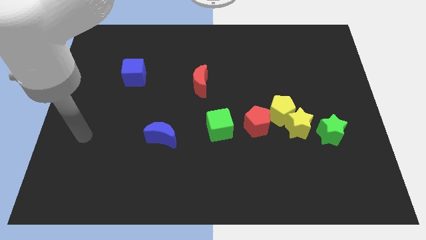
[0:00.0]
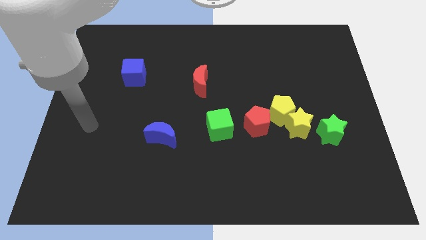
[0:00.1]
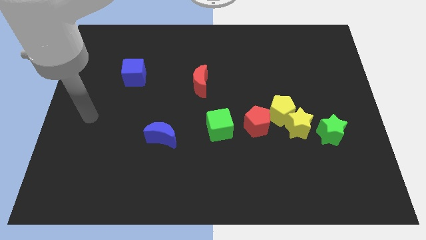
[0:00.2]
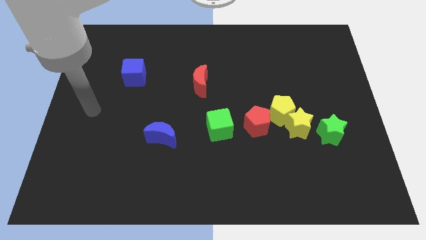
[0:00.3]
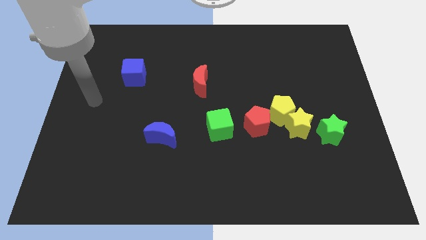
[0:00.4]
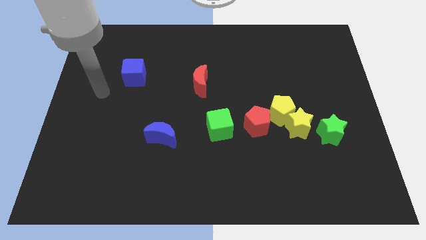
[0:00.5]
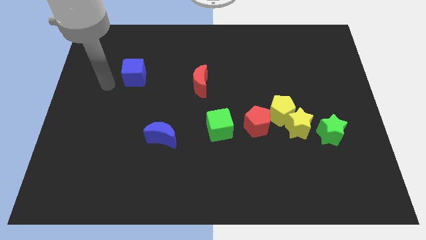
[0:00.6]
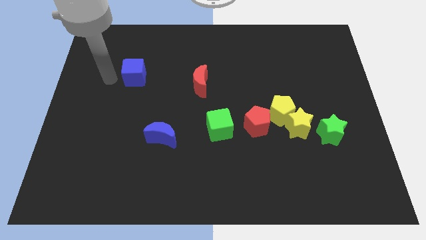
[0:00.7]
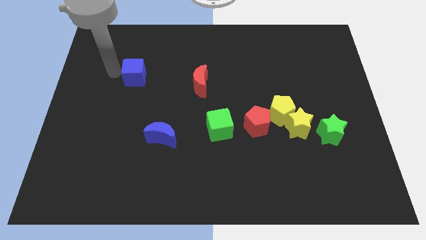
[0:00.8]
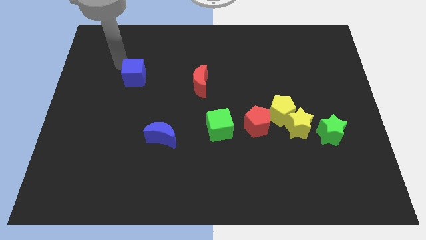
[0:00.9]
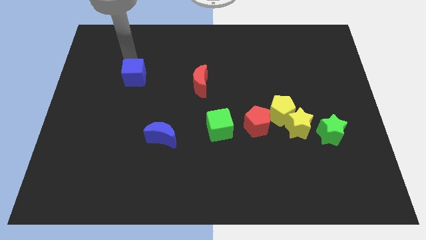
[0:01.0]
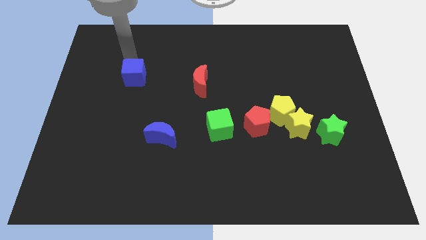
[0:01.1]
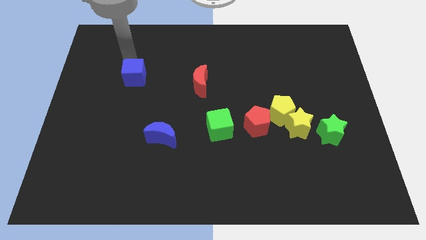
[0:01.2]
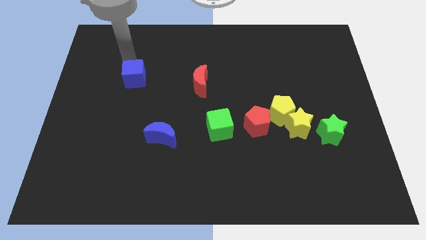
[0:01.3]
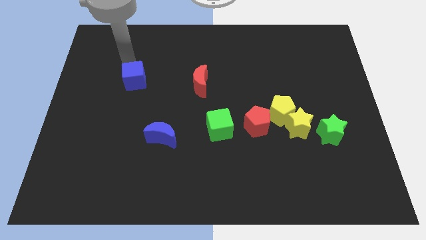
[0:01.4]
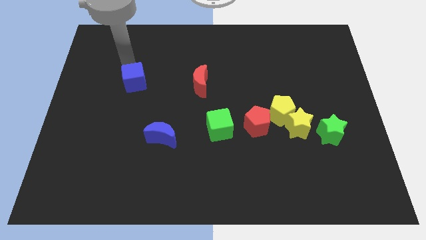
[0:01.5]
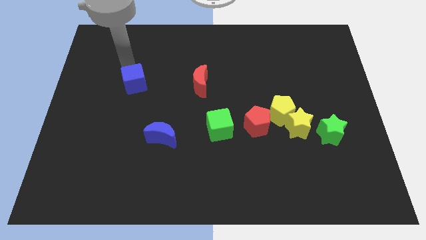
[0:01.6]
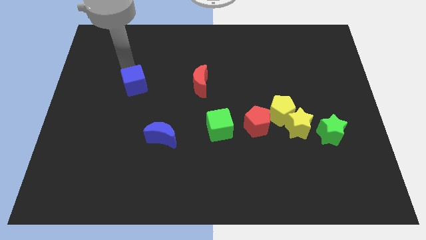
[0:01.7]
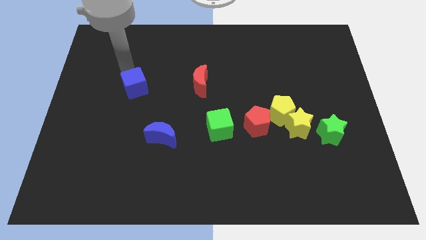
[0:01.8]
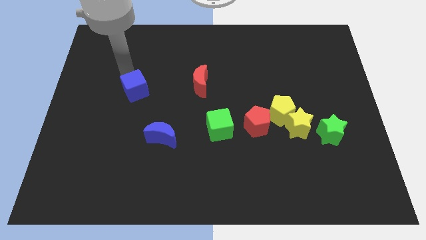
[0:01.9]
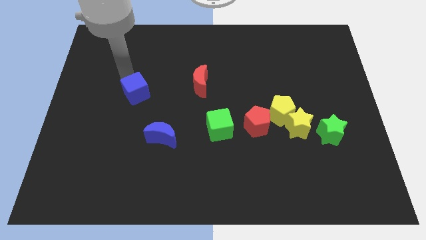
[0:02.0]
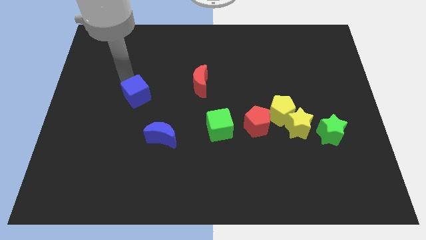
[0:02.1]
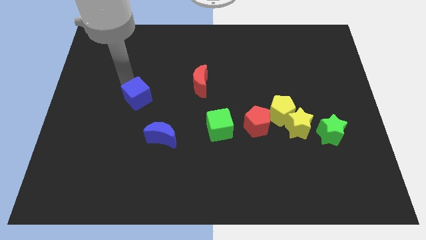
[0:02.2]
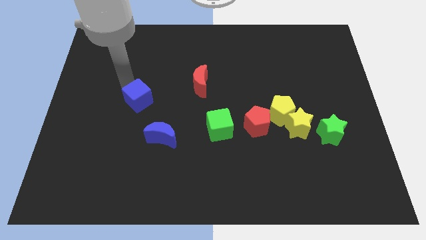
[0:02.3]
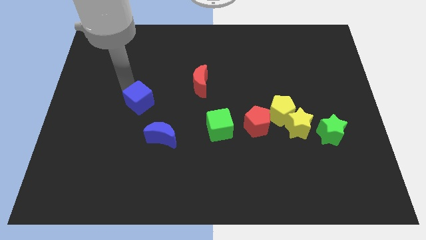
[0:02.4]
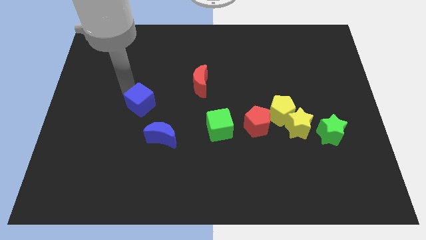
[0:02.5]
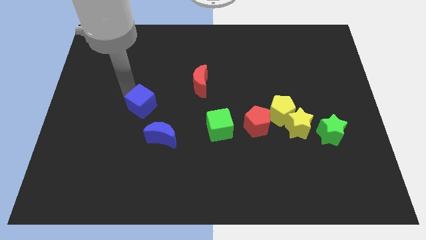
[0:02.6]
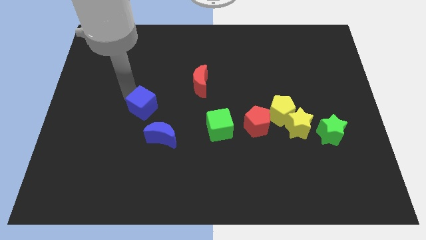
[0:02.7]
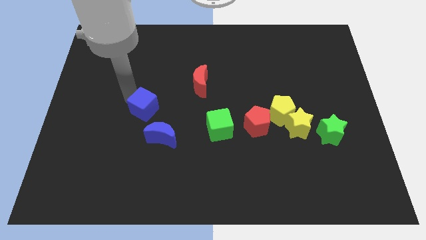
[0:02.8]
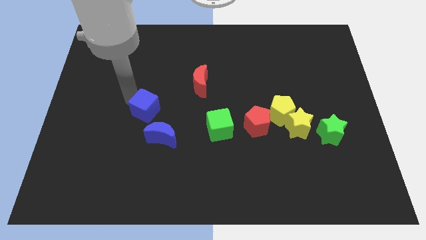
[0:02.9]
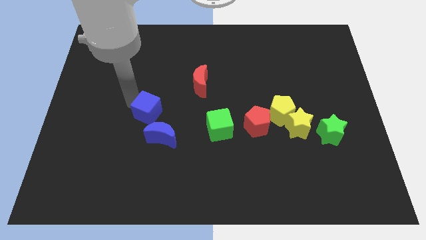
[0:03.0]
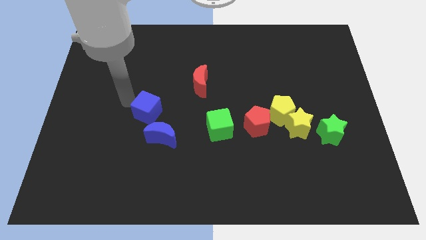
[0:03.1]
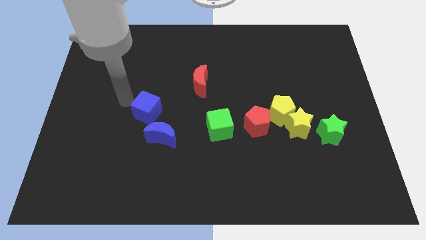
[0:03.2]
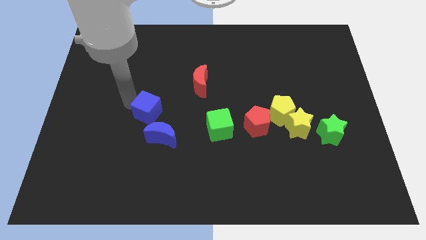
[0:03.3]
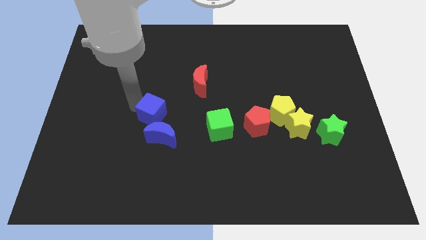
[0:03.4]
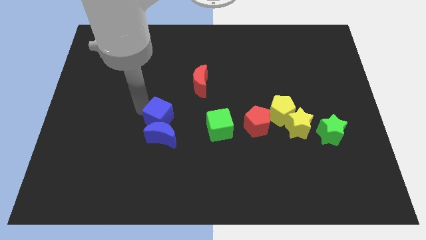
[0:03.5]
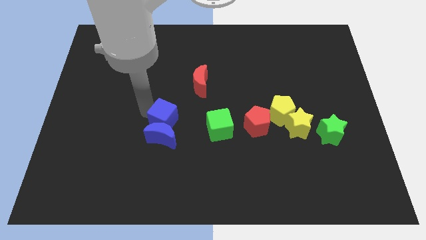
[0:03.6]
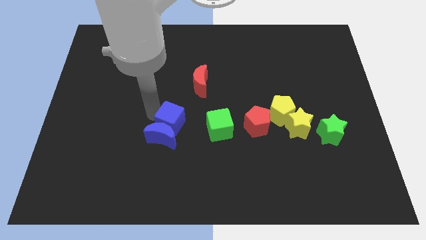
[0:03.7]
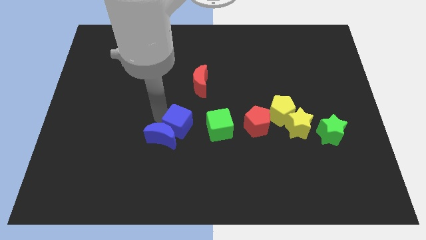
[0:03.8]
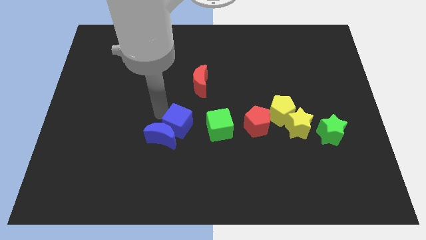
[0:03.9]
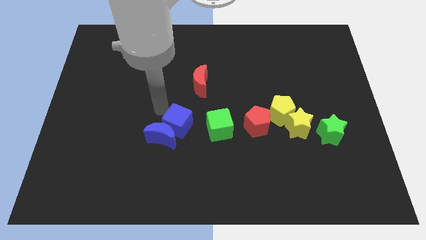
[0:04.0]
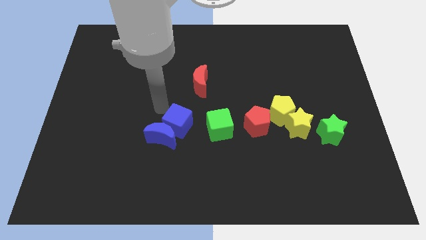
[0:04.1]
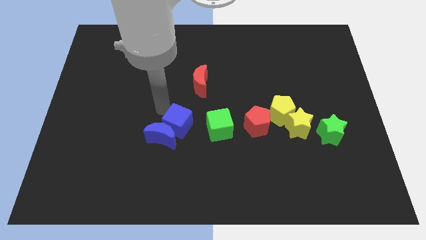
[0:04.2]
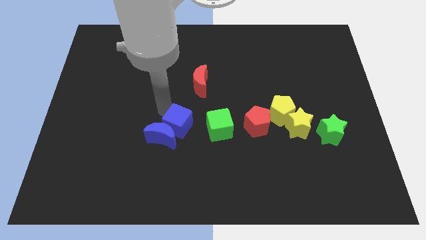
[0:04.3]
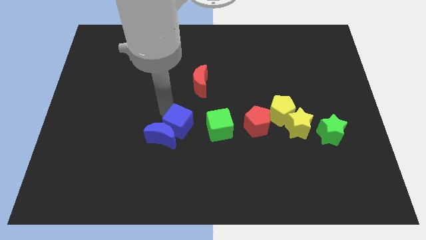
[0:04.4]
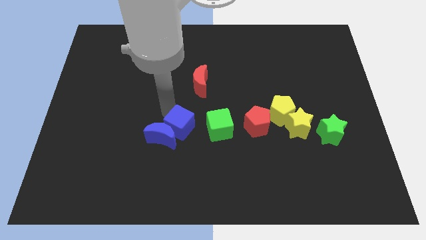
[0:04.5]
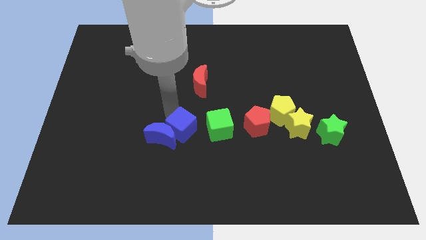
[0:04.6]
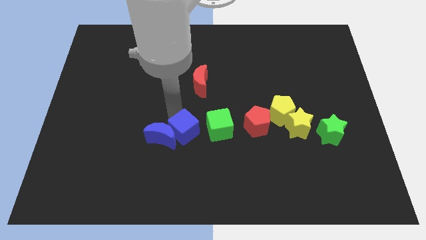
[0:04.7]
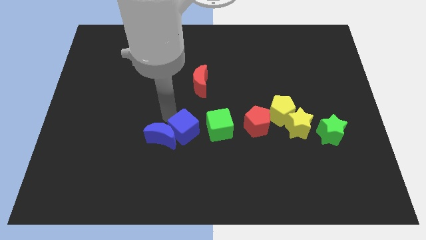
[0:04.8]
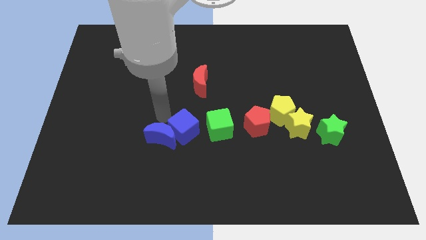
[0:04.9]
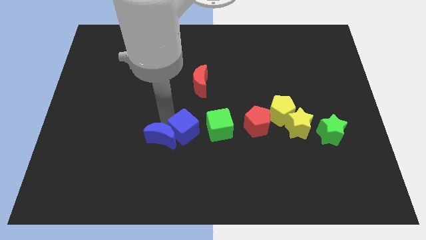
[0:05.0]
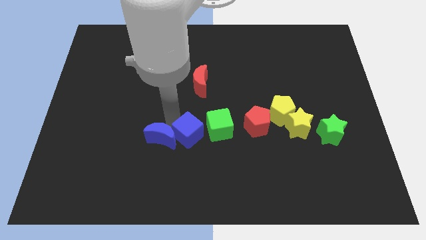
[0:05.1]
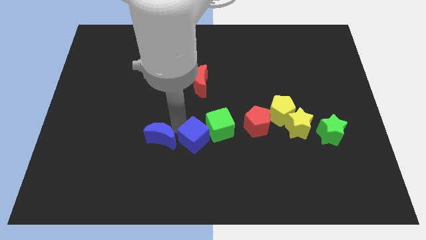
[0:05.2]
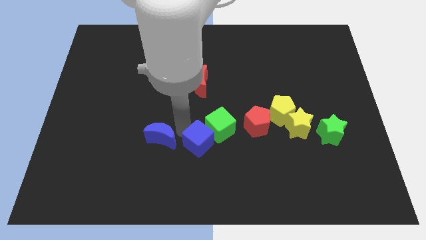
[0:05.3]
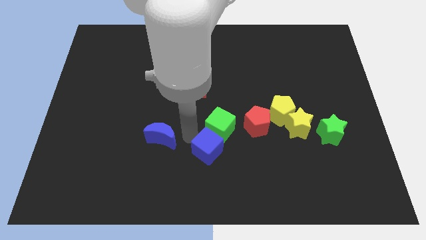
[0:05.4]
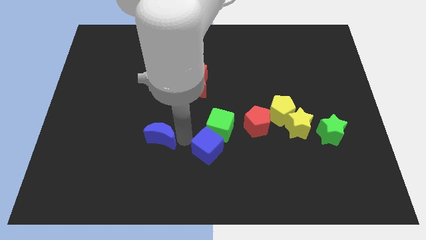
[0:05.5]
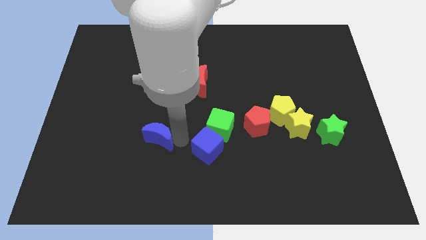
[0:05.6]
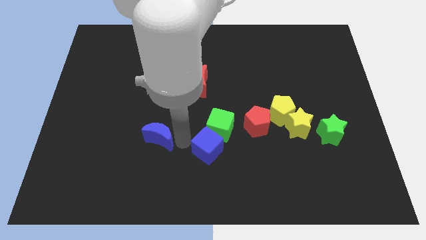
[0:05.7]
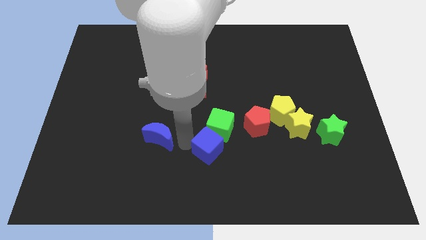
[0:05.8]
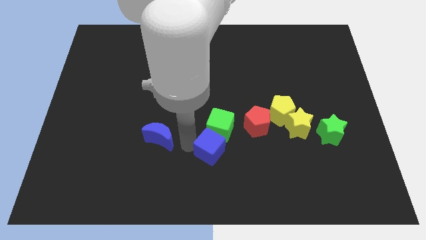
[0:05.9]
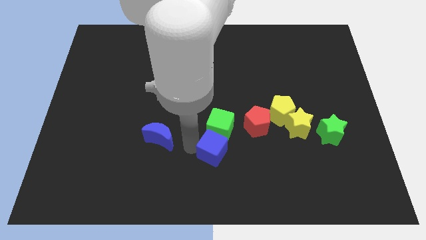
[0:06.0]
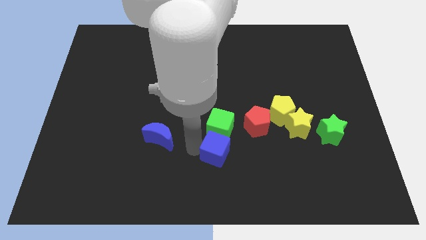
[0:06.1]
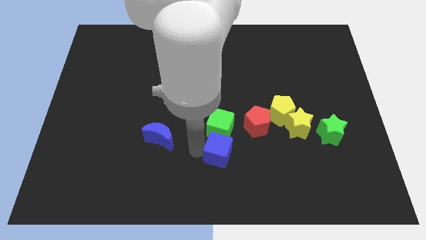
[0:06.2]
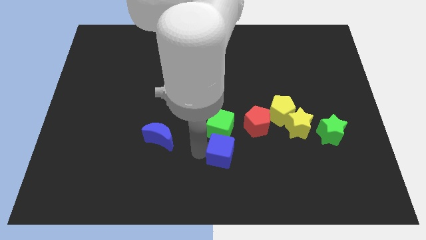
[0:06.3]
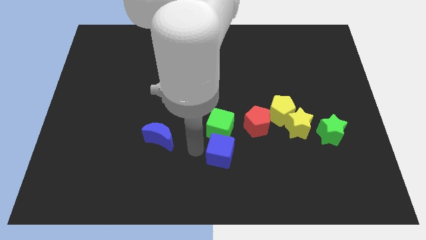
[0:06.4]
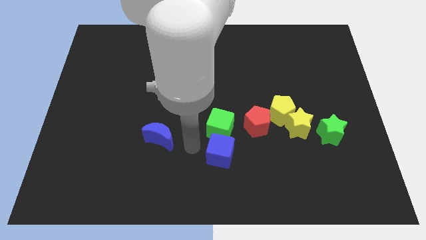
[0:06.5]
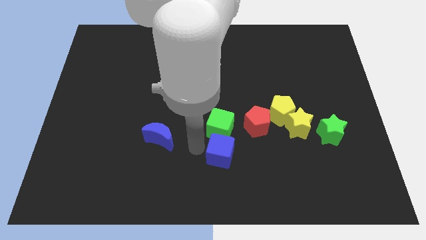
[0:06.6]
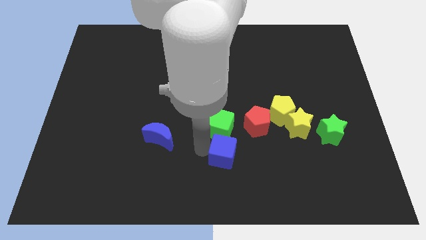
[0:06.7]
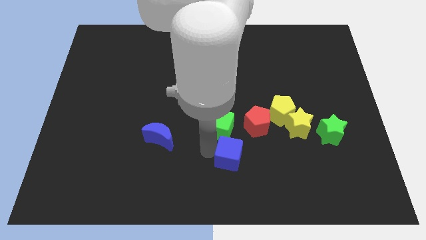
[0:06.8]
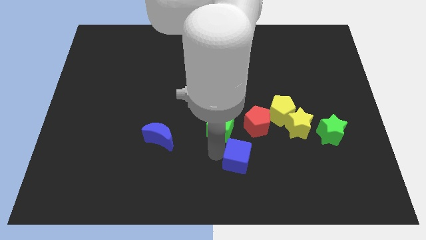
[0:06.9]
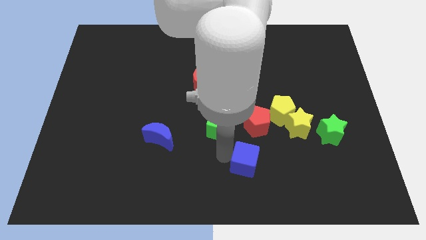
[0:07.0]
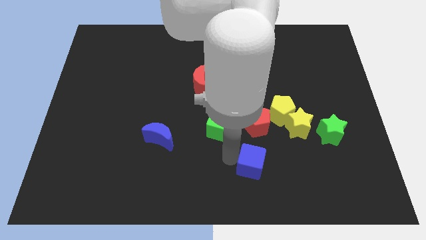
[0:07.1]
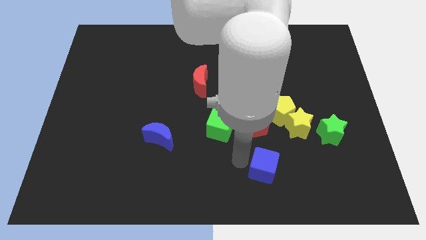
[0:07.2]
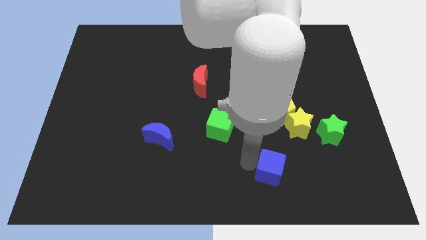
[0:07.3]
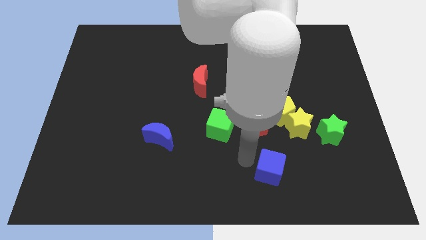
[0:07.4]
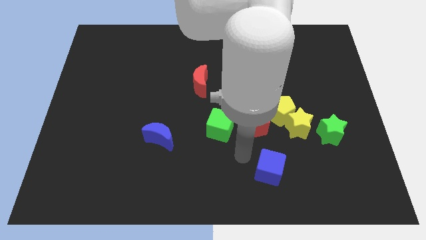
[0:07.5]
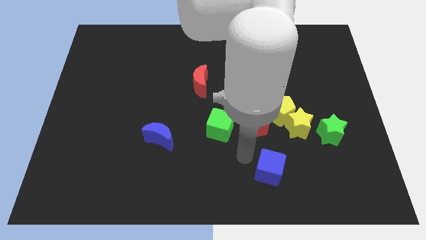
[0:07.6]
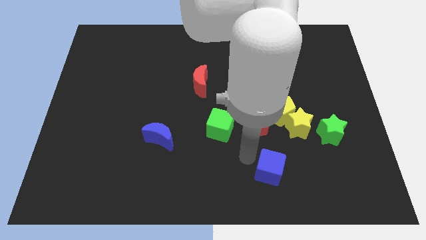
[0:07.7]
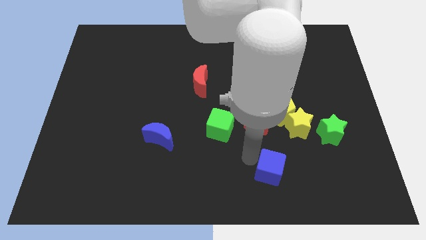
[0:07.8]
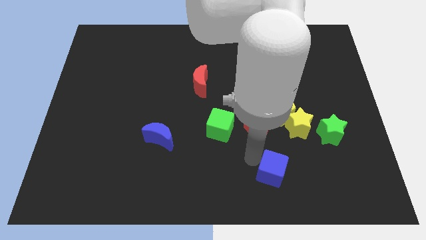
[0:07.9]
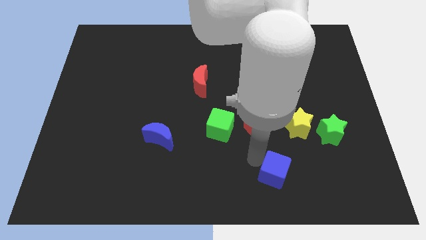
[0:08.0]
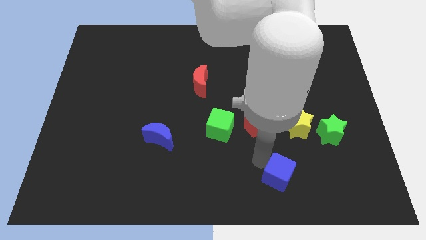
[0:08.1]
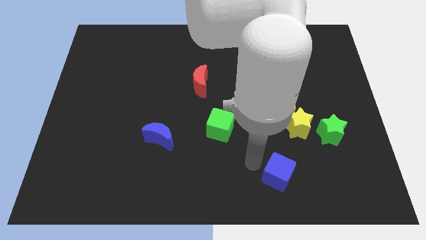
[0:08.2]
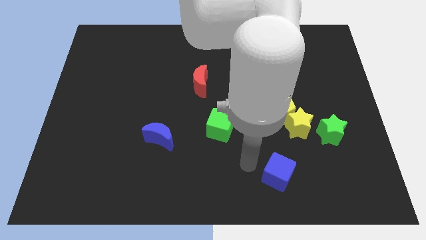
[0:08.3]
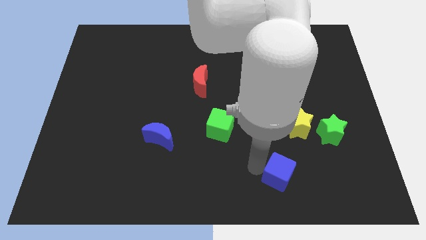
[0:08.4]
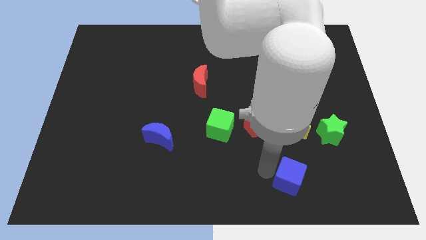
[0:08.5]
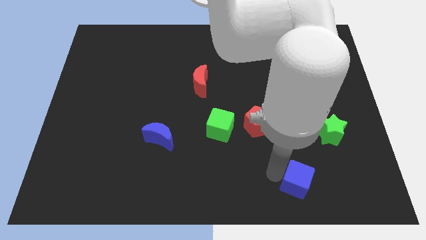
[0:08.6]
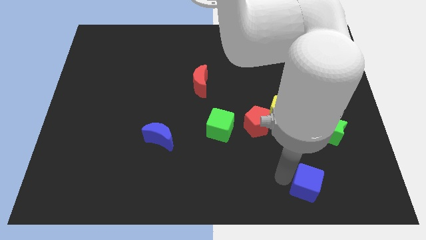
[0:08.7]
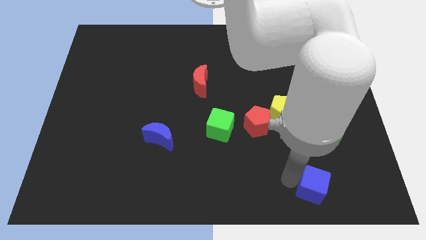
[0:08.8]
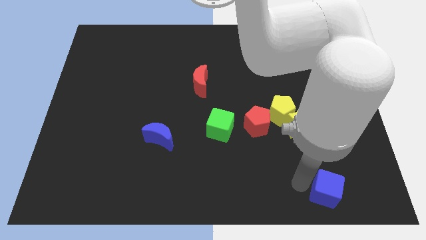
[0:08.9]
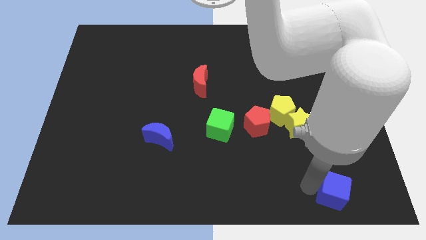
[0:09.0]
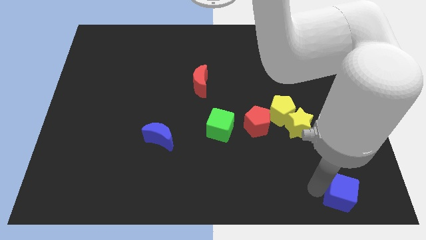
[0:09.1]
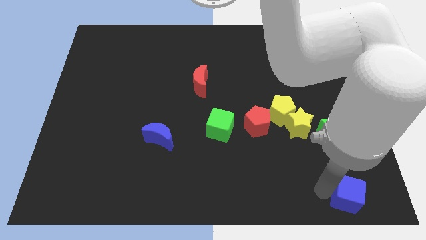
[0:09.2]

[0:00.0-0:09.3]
slide the blue cube to the bottom right corner
